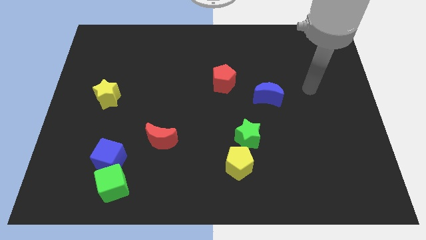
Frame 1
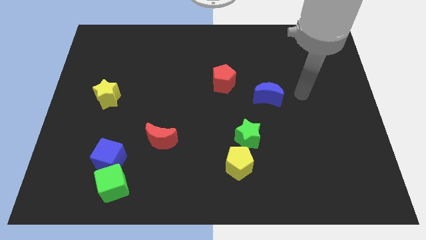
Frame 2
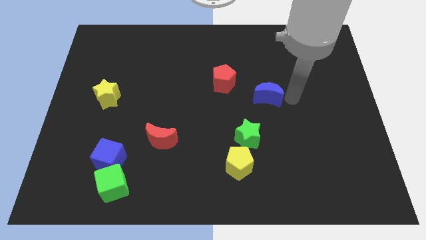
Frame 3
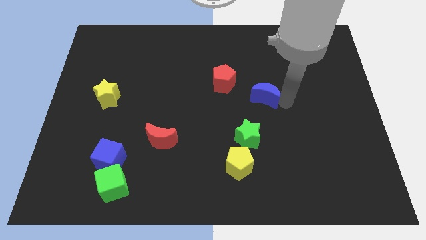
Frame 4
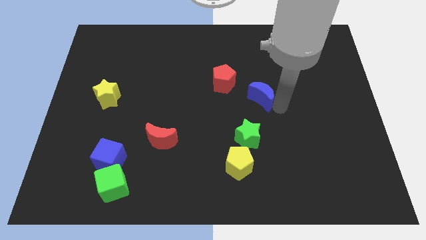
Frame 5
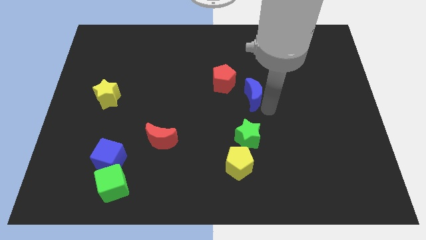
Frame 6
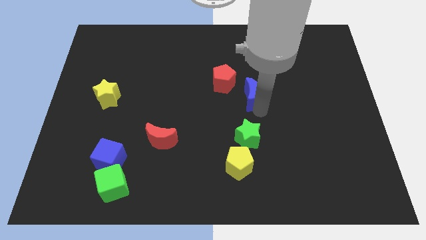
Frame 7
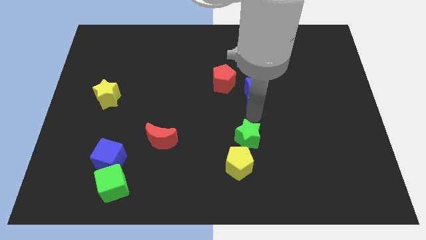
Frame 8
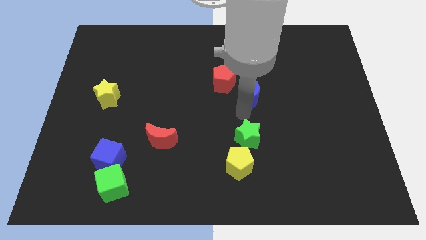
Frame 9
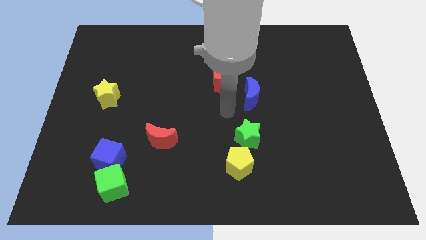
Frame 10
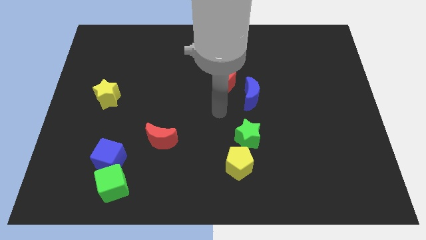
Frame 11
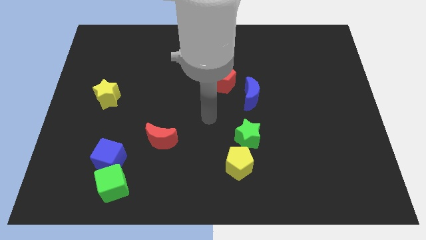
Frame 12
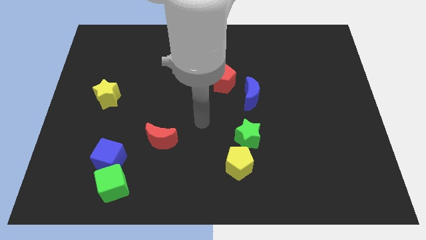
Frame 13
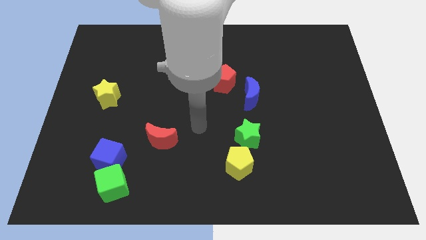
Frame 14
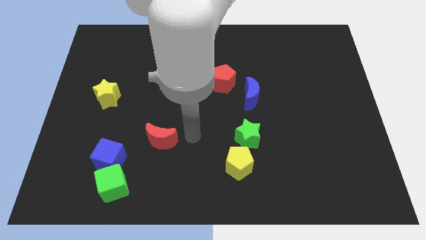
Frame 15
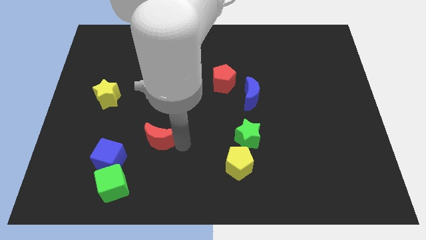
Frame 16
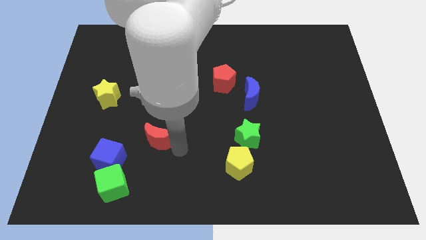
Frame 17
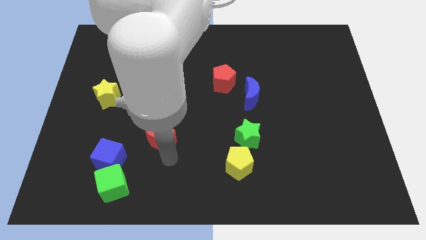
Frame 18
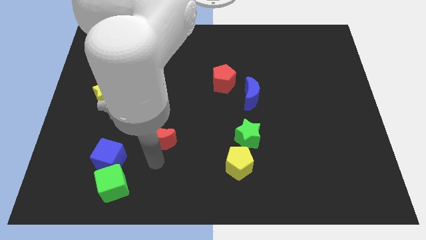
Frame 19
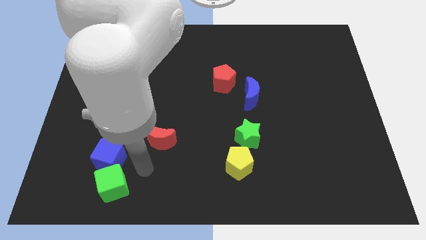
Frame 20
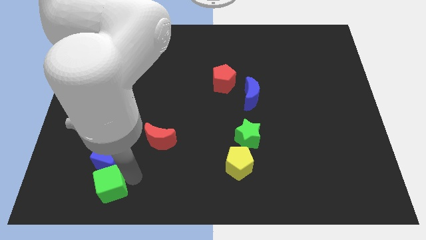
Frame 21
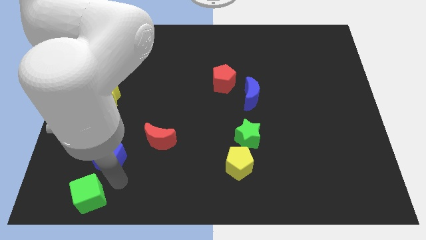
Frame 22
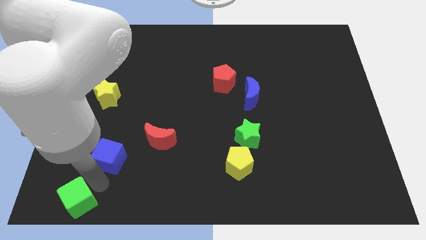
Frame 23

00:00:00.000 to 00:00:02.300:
pull the blue cube apart from the green cube

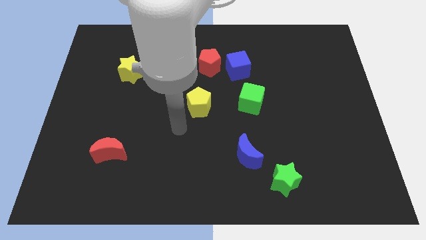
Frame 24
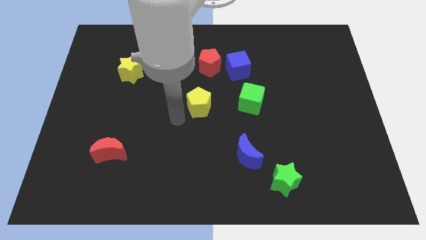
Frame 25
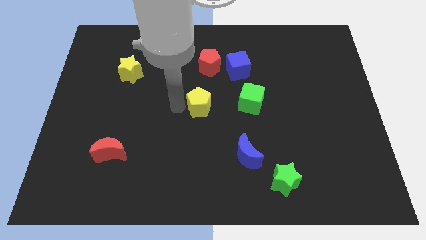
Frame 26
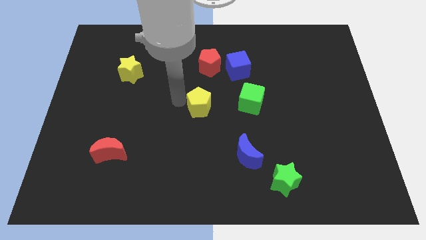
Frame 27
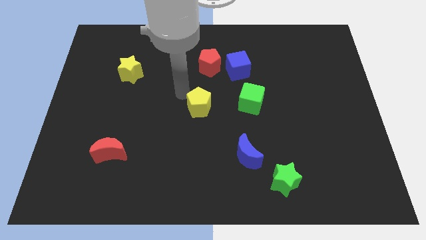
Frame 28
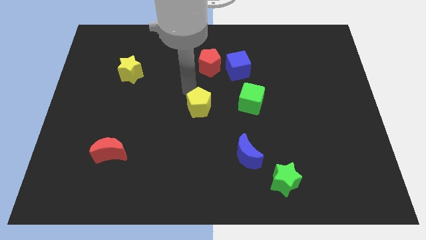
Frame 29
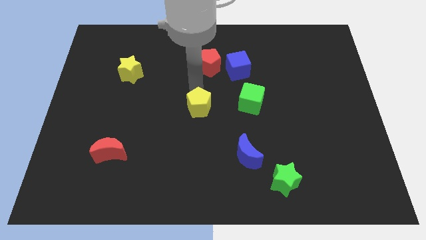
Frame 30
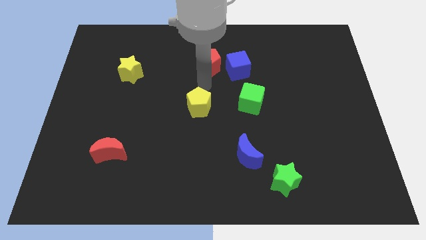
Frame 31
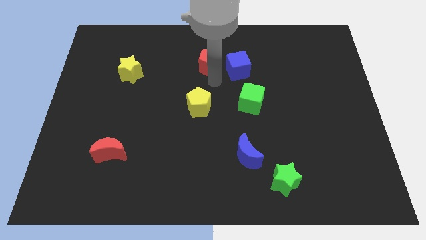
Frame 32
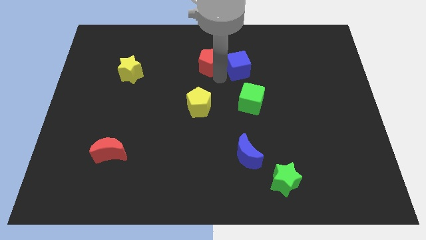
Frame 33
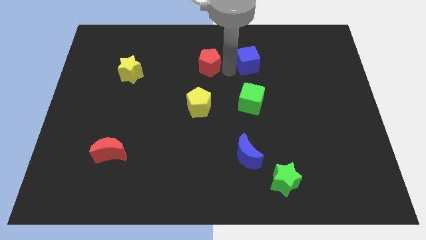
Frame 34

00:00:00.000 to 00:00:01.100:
separate the red pentagon from the blue cube

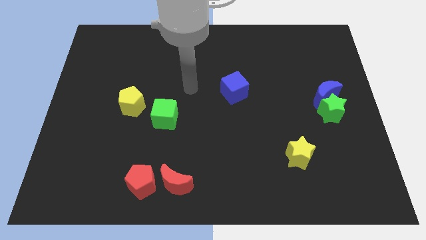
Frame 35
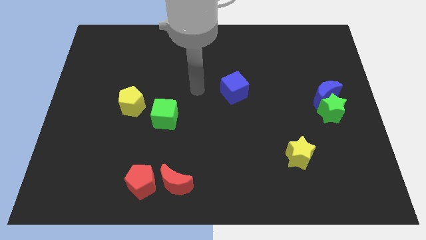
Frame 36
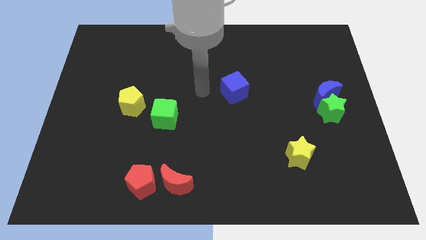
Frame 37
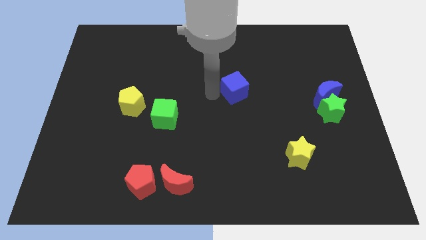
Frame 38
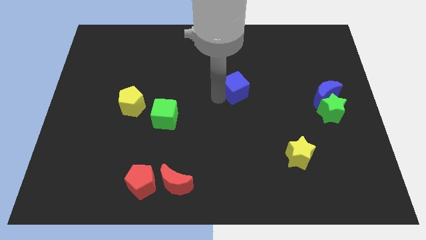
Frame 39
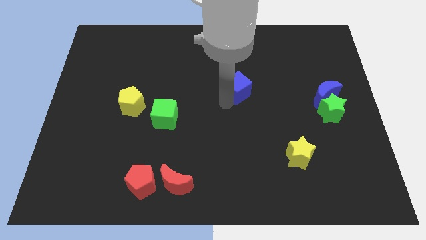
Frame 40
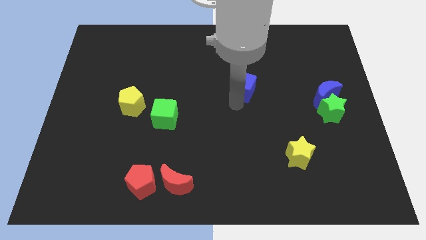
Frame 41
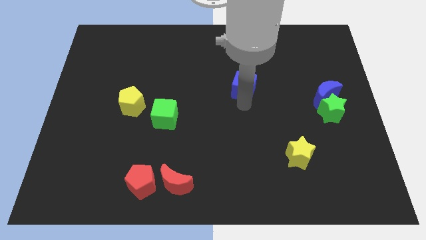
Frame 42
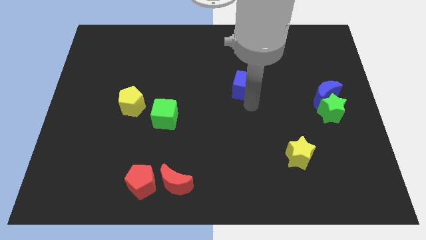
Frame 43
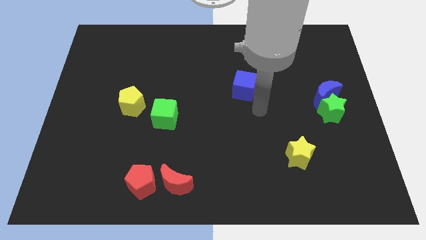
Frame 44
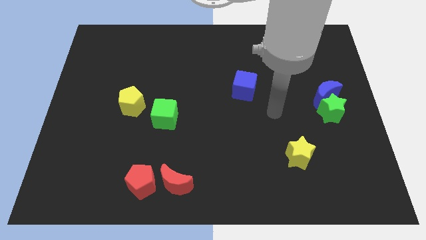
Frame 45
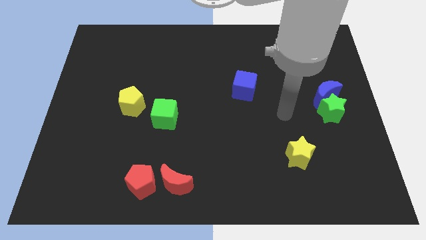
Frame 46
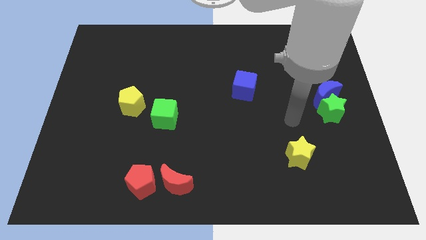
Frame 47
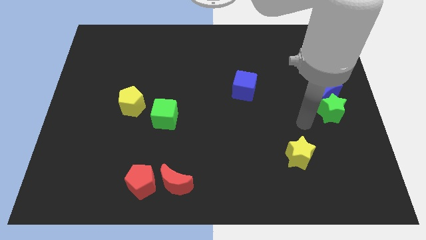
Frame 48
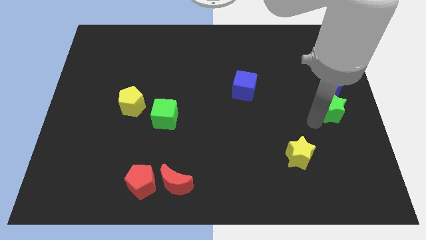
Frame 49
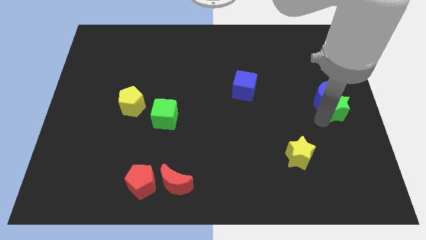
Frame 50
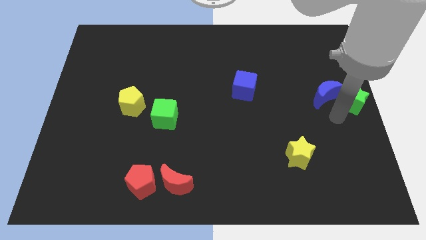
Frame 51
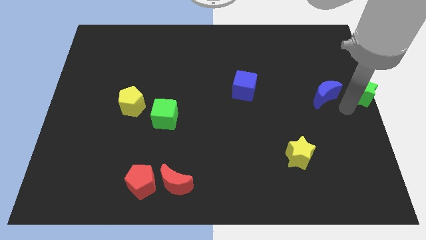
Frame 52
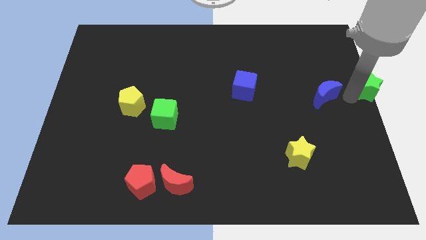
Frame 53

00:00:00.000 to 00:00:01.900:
pull the blue moon apart from the green star

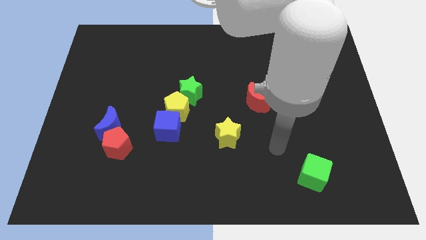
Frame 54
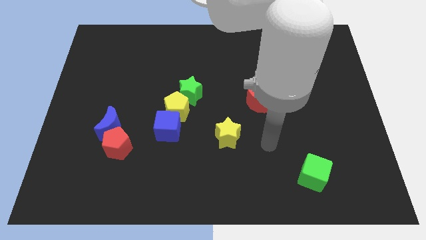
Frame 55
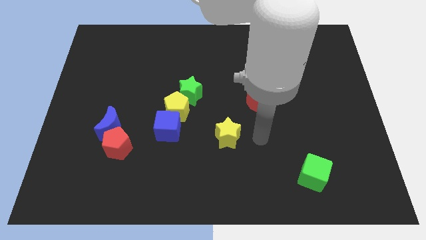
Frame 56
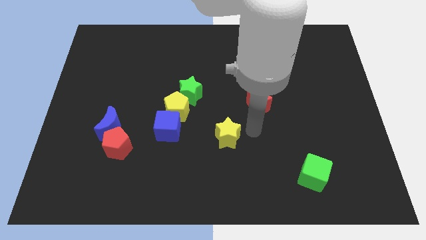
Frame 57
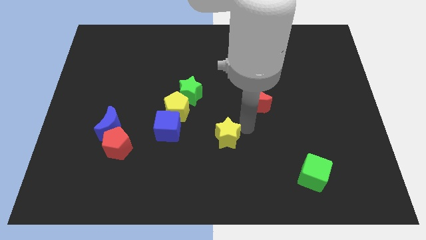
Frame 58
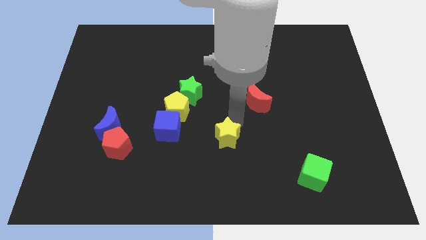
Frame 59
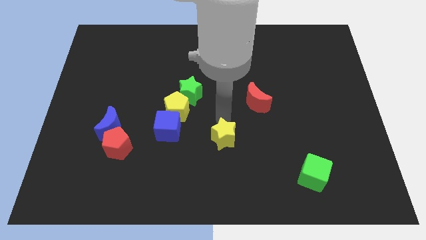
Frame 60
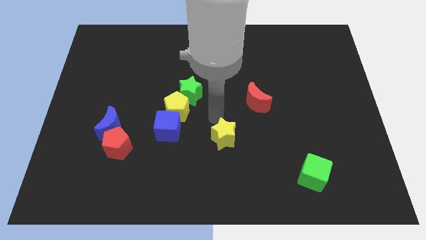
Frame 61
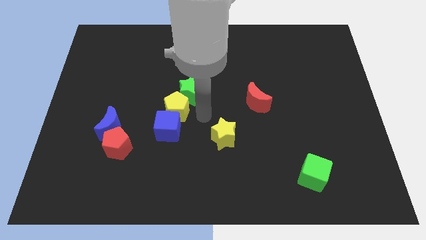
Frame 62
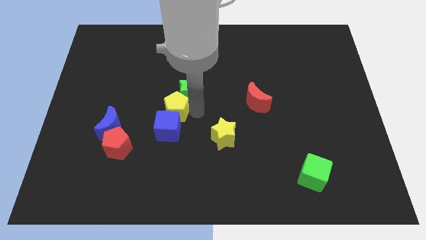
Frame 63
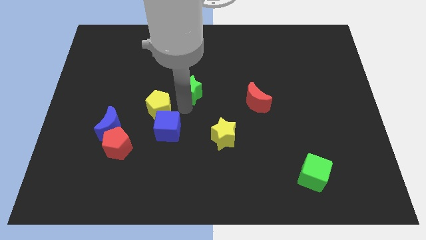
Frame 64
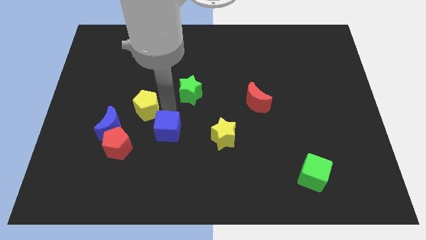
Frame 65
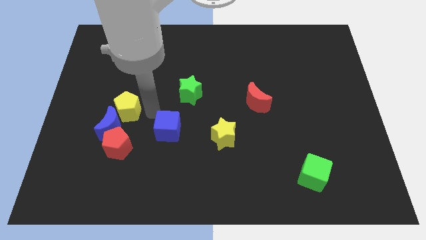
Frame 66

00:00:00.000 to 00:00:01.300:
pull the blue cube apart from the yellow pentagon

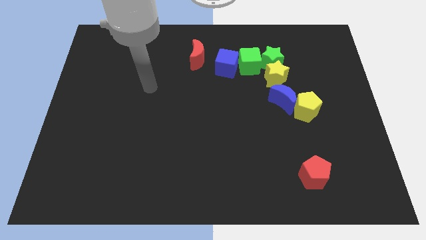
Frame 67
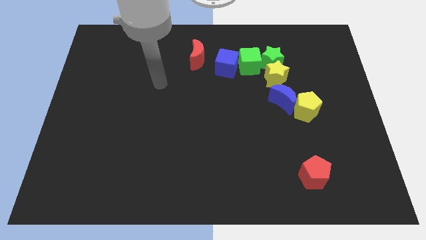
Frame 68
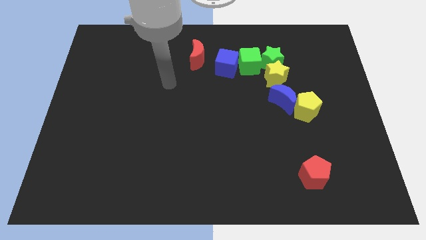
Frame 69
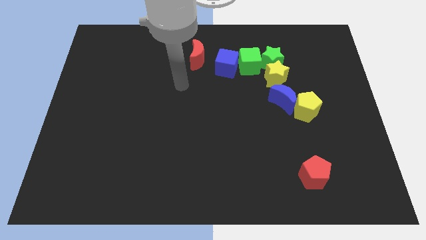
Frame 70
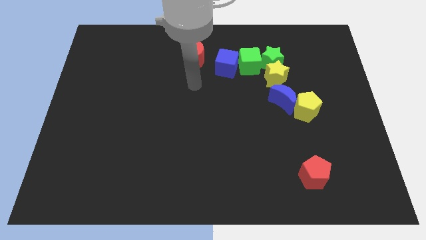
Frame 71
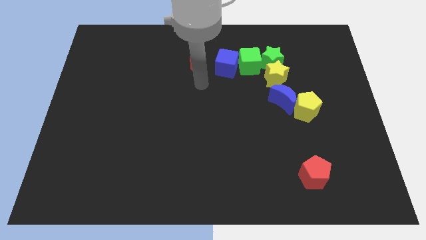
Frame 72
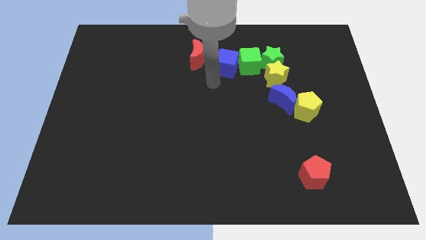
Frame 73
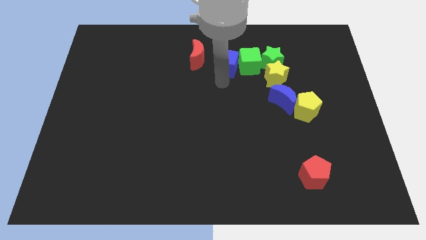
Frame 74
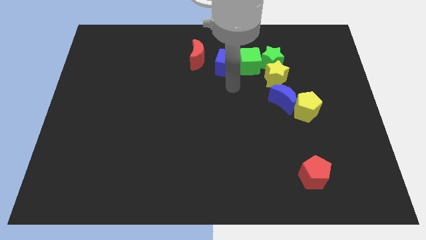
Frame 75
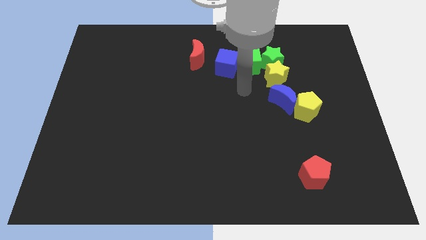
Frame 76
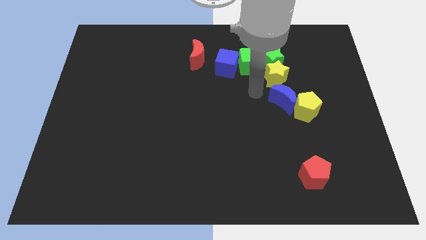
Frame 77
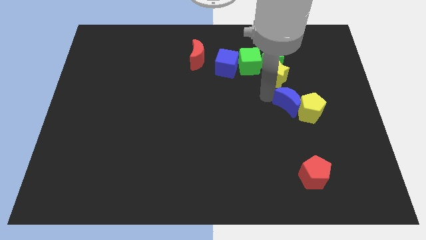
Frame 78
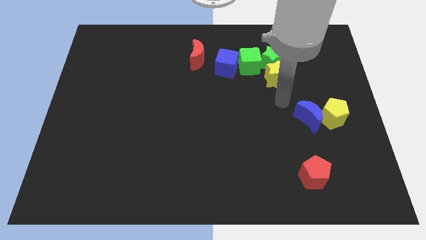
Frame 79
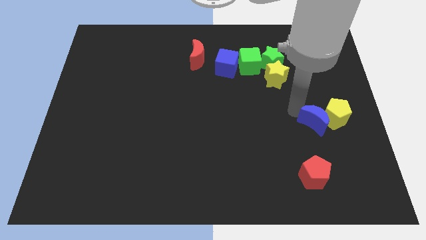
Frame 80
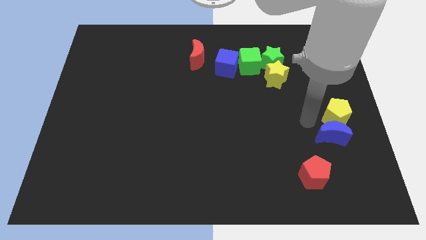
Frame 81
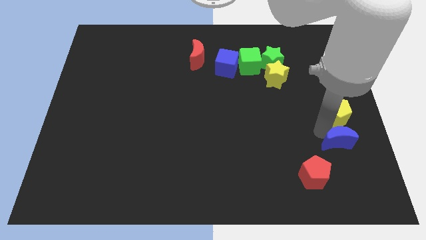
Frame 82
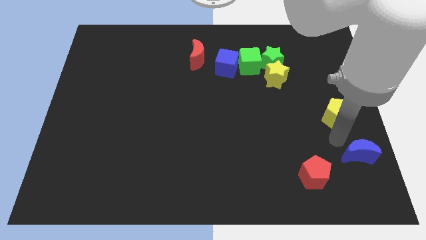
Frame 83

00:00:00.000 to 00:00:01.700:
move the yellow pentagon away from the blue moon

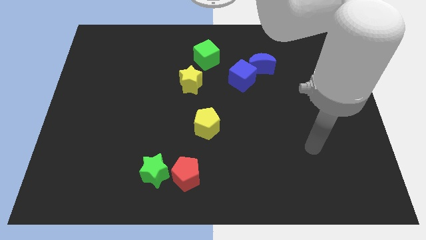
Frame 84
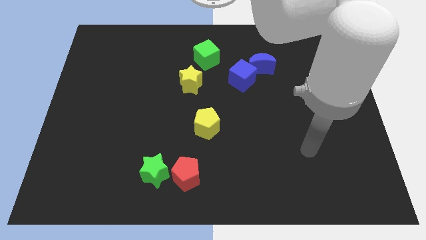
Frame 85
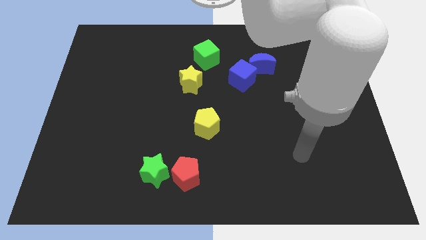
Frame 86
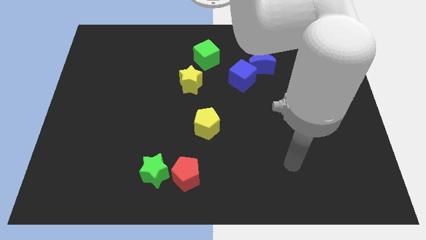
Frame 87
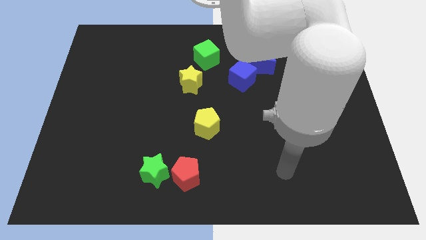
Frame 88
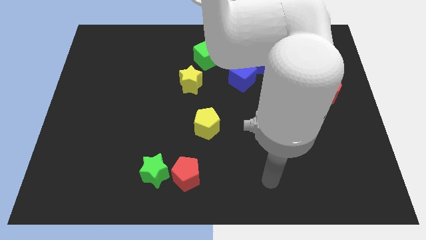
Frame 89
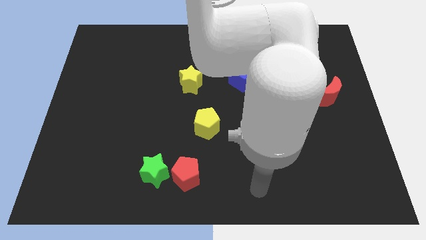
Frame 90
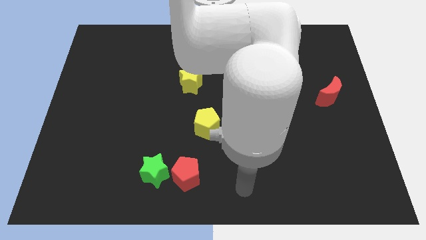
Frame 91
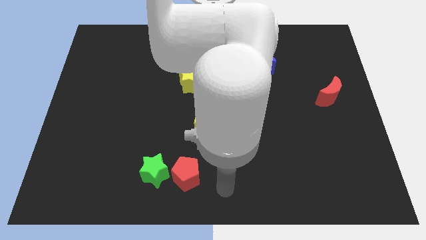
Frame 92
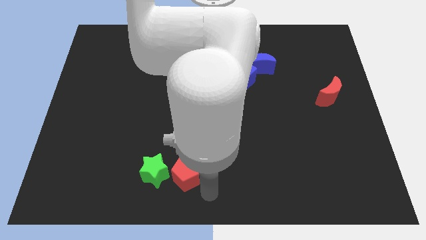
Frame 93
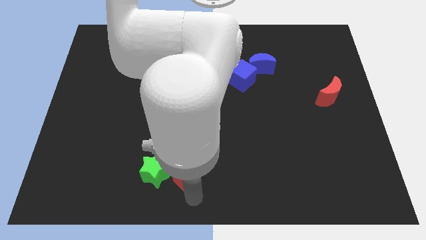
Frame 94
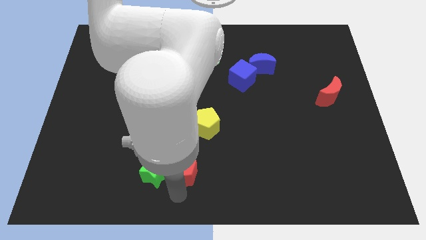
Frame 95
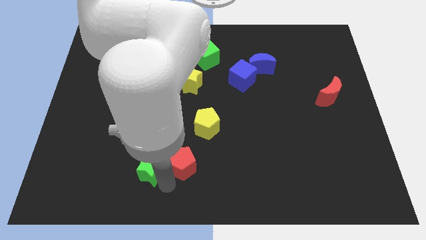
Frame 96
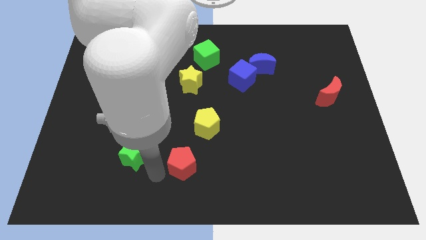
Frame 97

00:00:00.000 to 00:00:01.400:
separate the red pentagon from the green star
